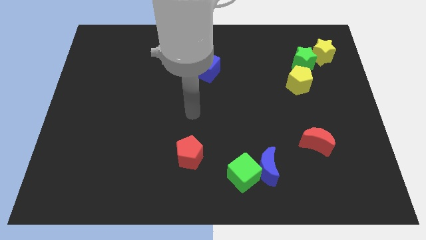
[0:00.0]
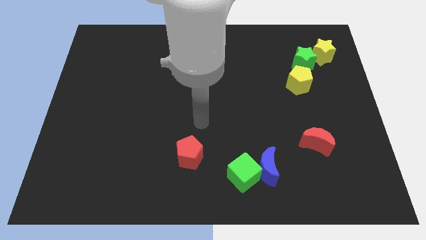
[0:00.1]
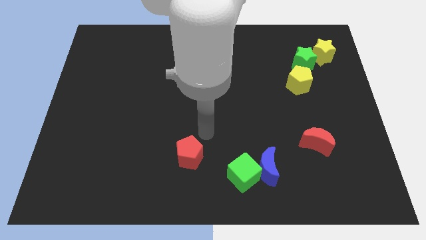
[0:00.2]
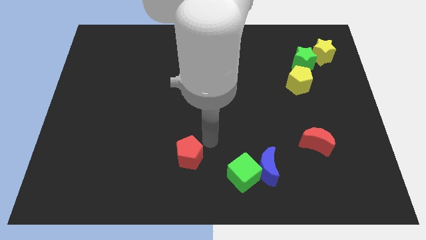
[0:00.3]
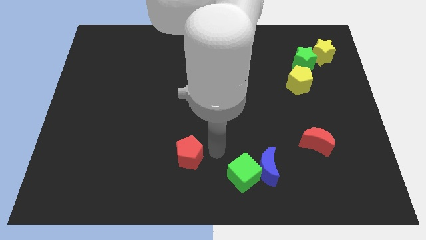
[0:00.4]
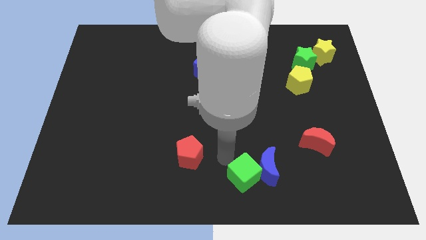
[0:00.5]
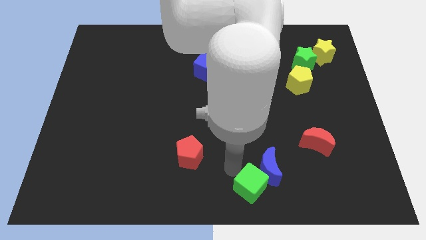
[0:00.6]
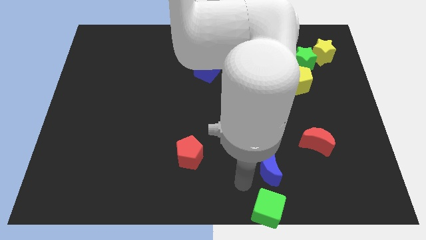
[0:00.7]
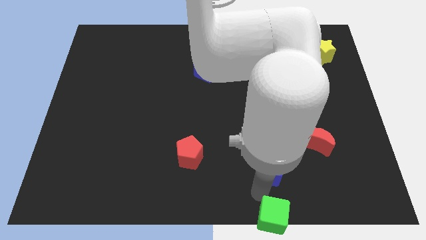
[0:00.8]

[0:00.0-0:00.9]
separate the blue moon from the green cube

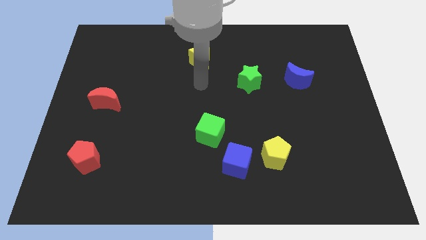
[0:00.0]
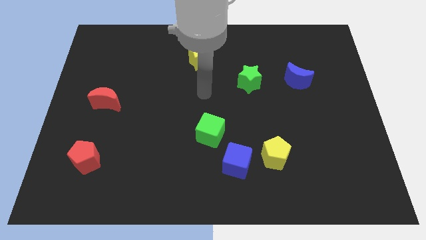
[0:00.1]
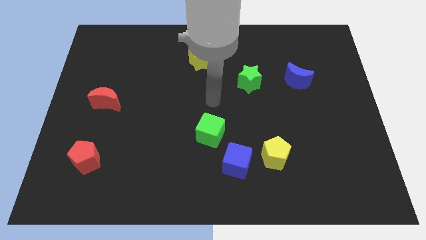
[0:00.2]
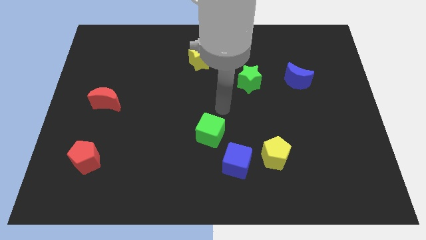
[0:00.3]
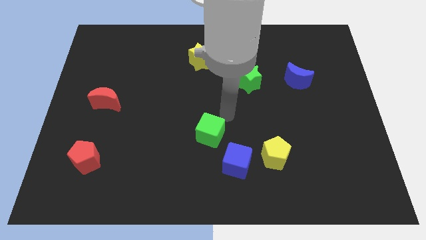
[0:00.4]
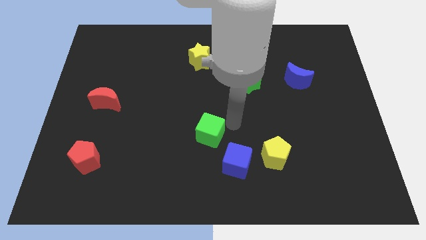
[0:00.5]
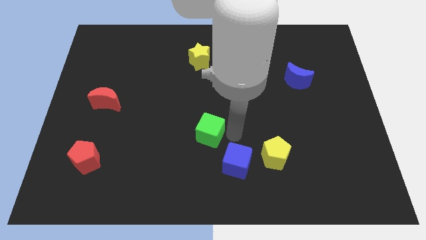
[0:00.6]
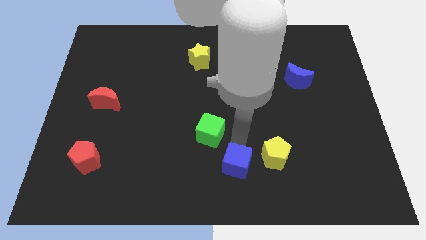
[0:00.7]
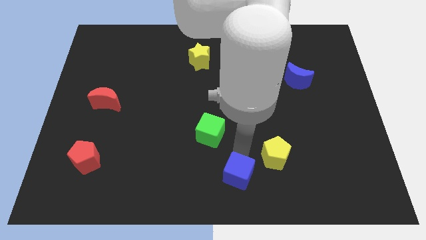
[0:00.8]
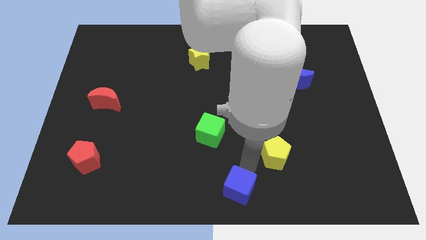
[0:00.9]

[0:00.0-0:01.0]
pull the yellow pentagon apart from the blue cube

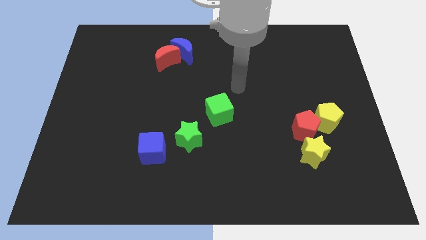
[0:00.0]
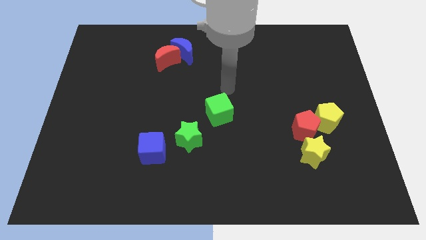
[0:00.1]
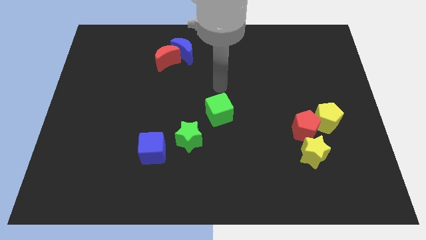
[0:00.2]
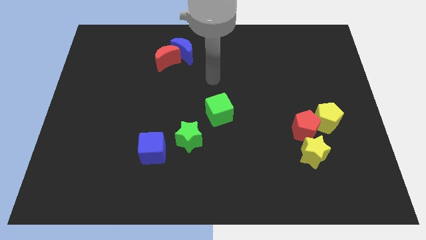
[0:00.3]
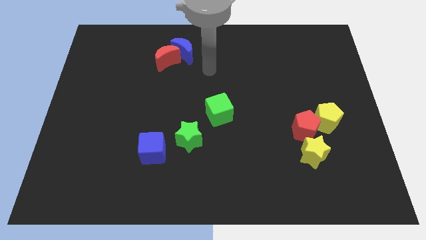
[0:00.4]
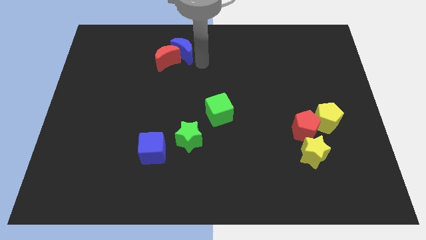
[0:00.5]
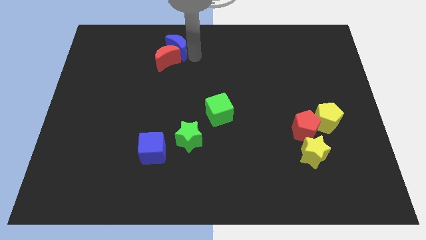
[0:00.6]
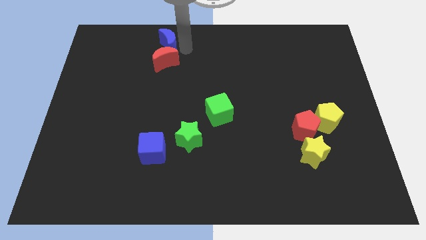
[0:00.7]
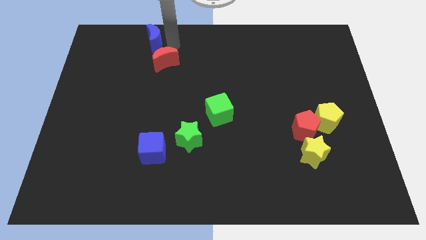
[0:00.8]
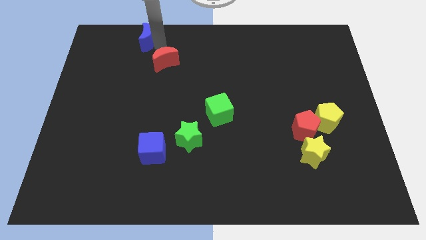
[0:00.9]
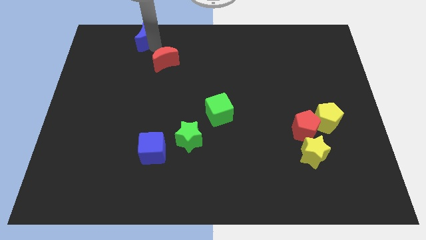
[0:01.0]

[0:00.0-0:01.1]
separate the red moon from the blue moon

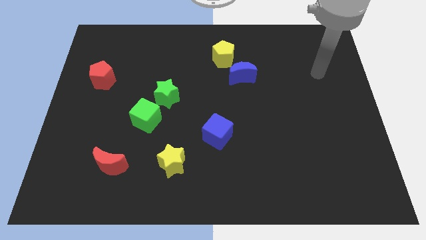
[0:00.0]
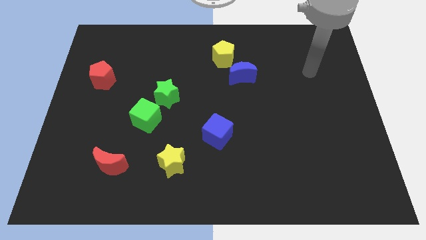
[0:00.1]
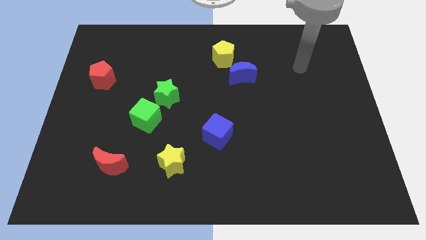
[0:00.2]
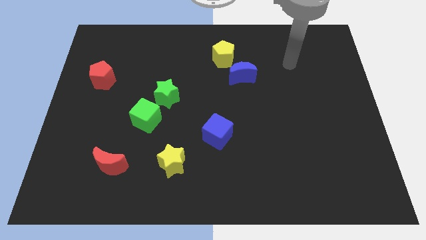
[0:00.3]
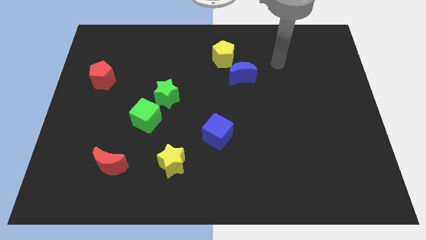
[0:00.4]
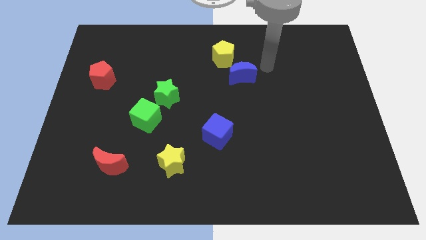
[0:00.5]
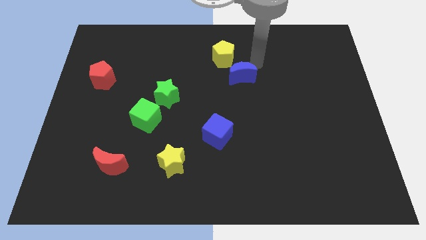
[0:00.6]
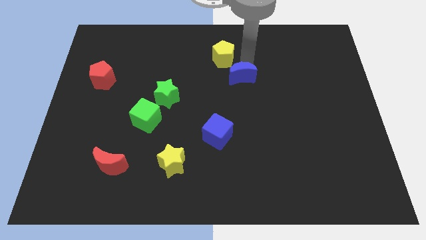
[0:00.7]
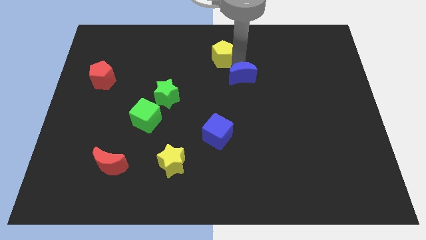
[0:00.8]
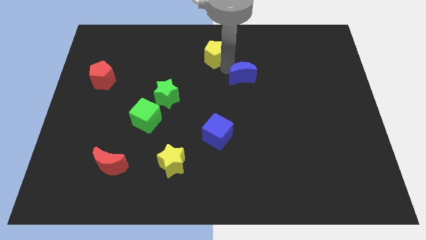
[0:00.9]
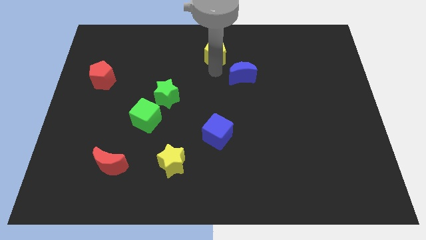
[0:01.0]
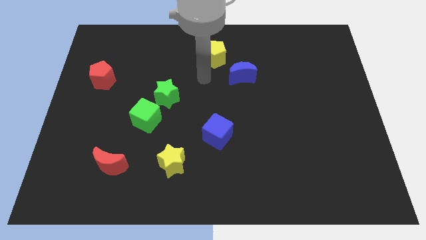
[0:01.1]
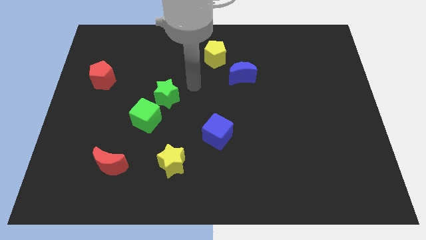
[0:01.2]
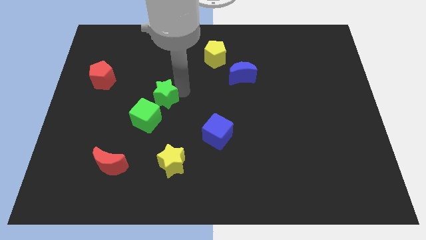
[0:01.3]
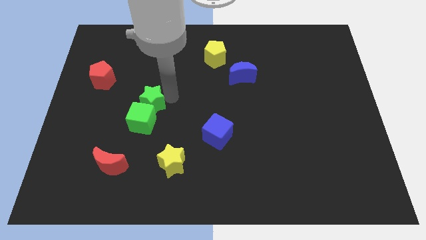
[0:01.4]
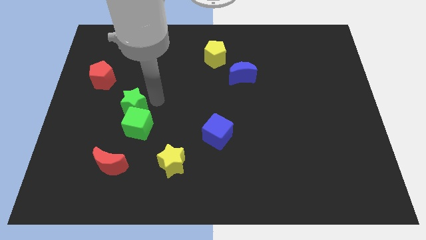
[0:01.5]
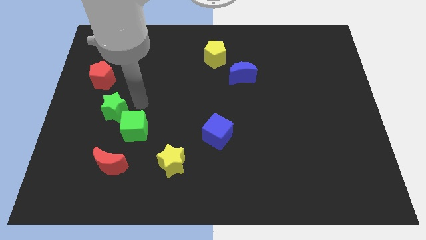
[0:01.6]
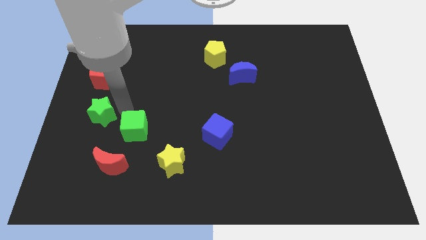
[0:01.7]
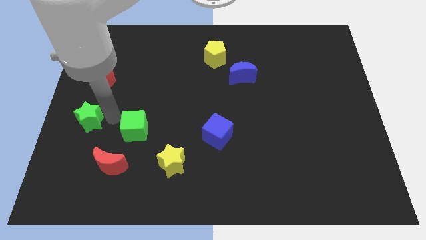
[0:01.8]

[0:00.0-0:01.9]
pull the green cube apart from the green star

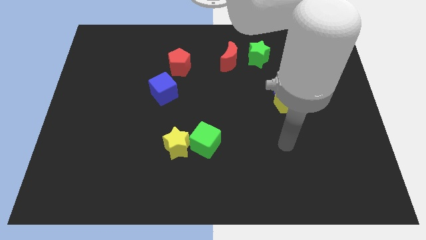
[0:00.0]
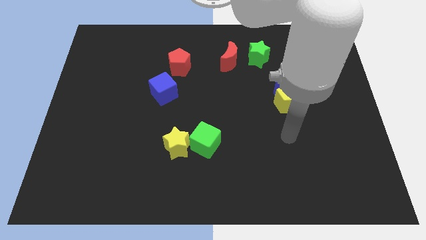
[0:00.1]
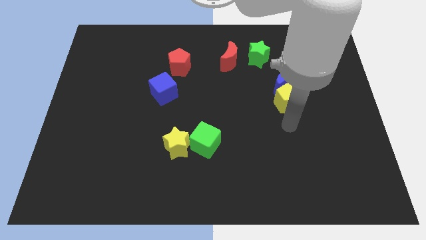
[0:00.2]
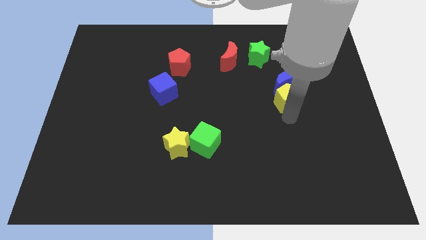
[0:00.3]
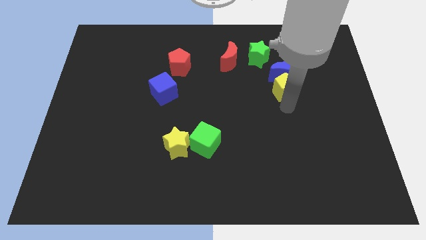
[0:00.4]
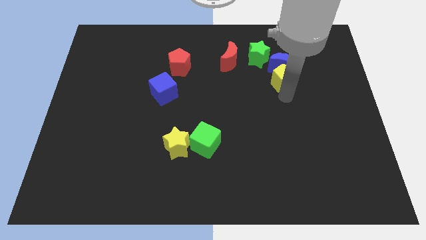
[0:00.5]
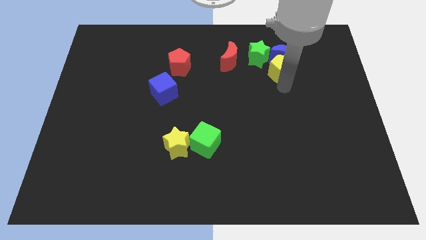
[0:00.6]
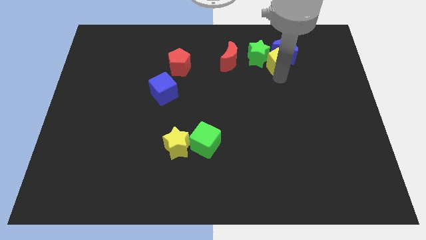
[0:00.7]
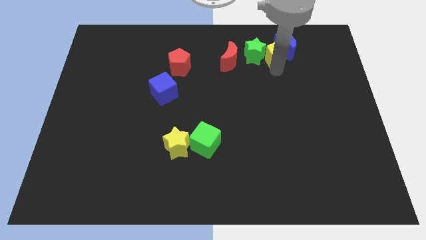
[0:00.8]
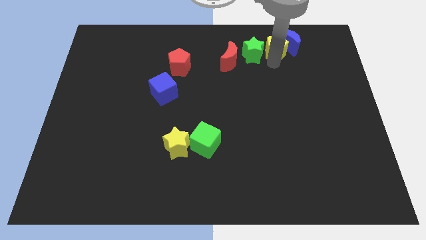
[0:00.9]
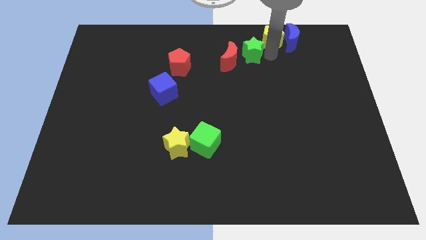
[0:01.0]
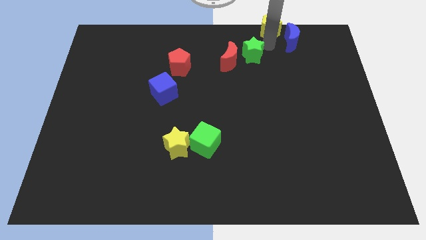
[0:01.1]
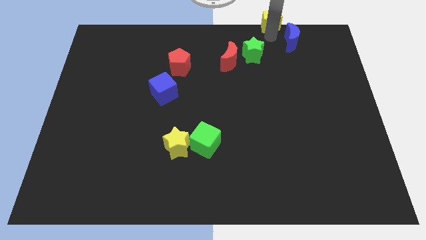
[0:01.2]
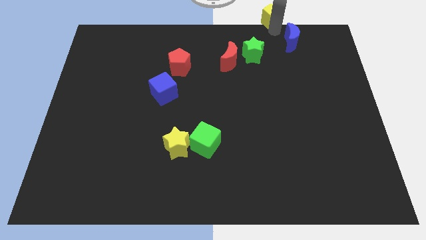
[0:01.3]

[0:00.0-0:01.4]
move the blue moon away from the yellow pentagon

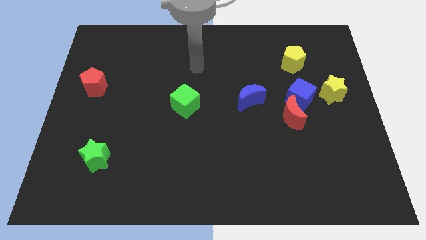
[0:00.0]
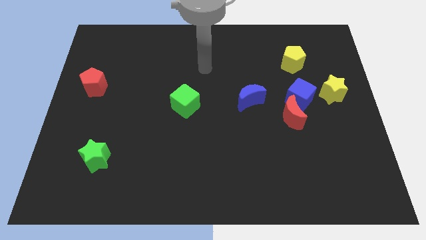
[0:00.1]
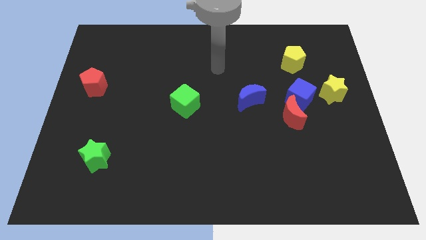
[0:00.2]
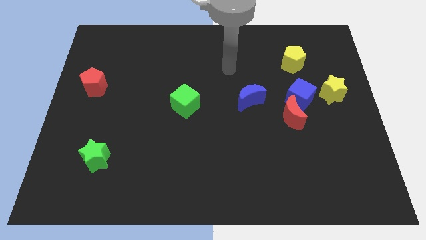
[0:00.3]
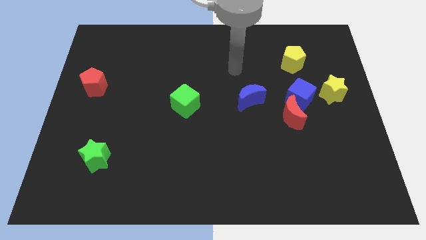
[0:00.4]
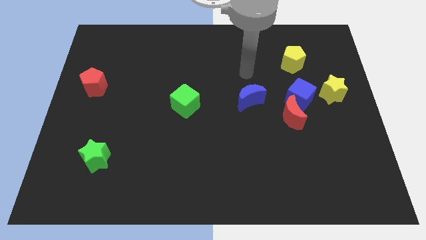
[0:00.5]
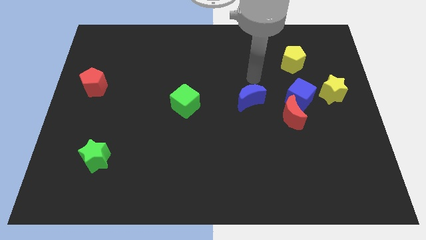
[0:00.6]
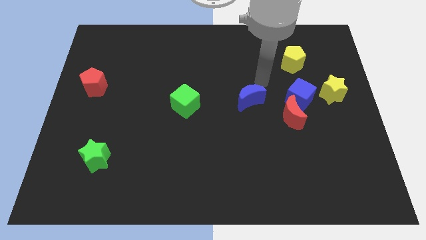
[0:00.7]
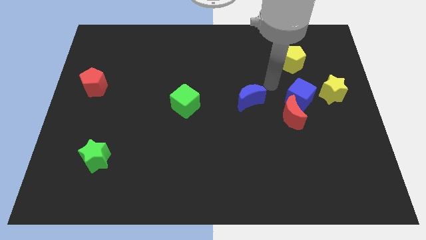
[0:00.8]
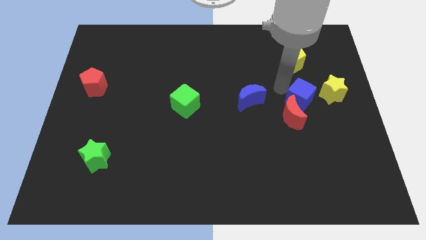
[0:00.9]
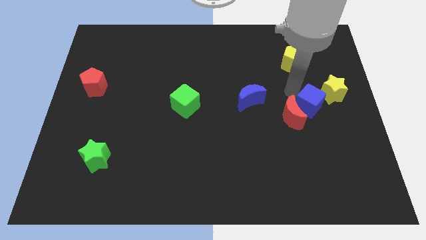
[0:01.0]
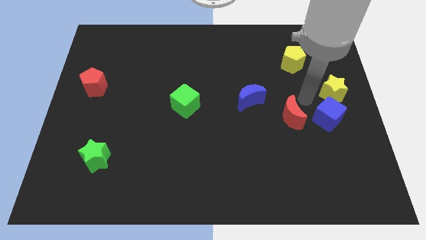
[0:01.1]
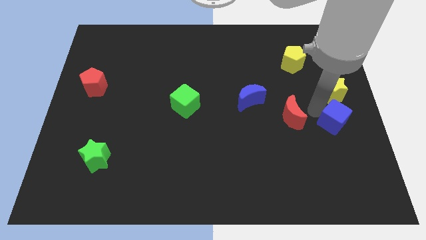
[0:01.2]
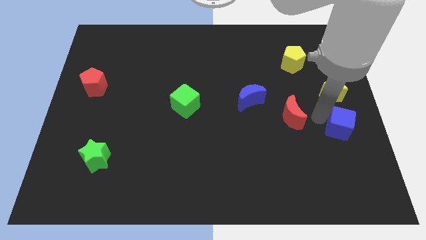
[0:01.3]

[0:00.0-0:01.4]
move the red moon away from the blue cube

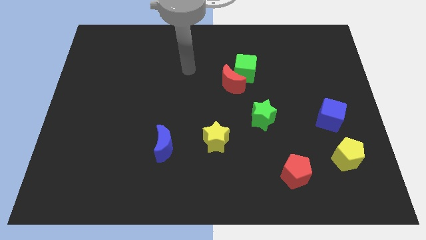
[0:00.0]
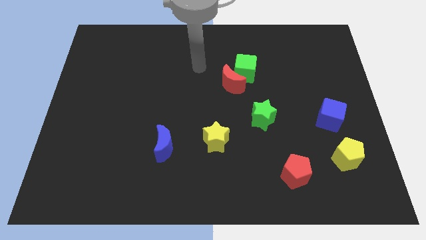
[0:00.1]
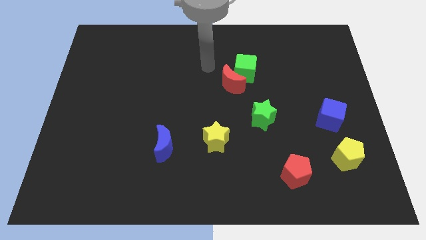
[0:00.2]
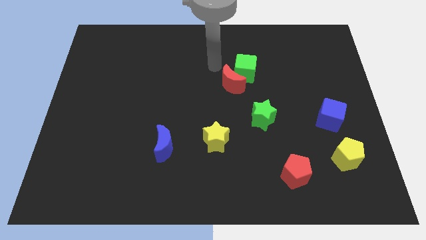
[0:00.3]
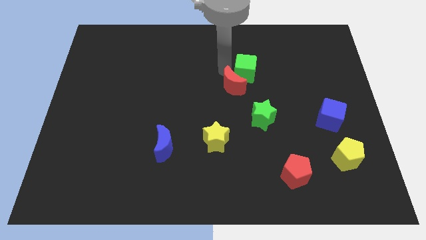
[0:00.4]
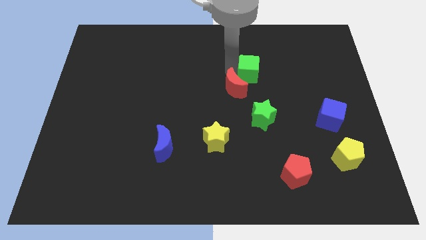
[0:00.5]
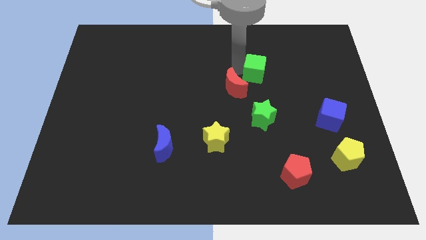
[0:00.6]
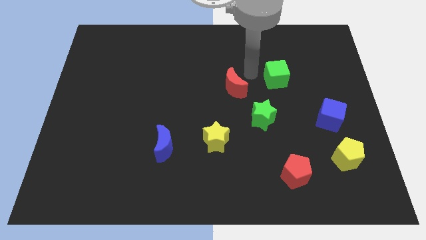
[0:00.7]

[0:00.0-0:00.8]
separate the red moon from the green cube

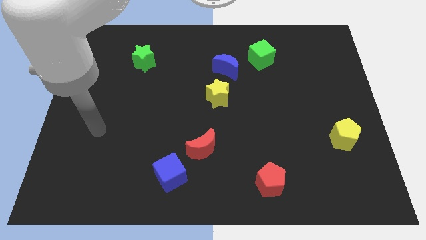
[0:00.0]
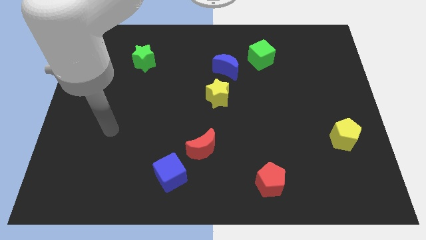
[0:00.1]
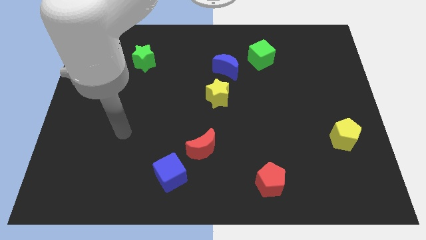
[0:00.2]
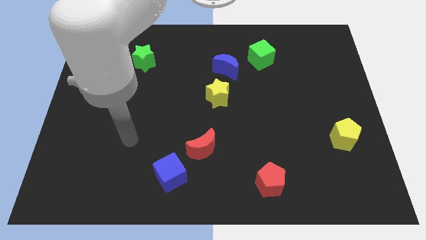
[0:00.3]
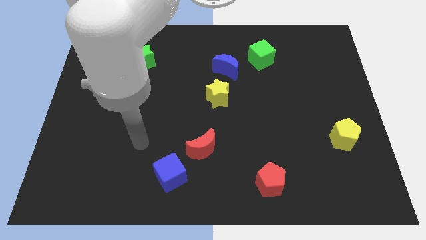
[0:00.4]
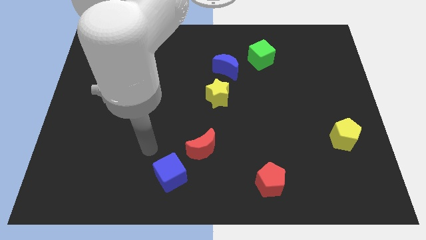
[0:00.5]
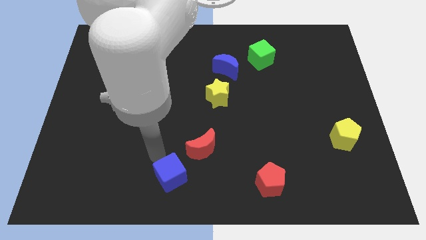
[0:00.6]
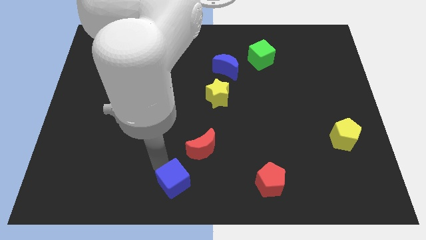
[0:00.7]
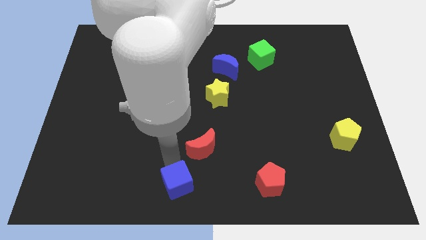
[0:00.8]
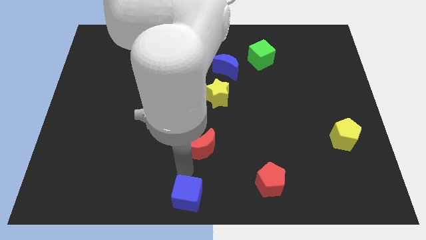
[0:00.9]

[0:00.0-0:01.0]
separate the red moon from the blue cube
